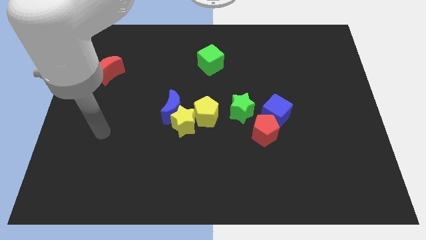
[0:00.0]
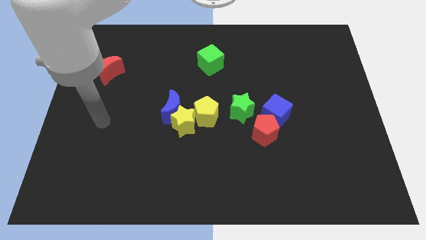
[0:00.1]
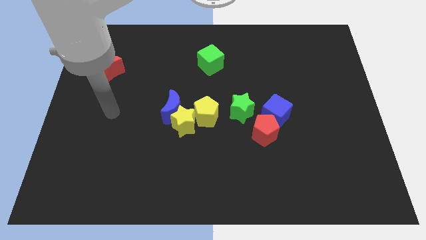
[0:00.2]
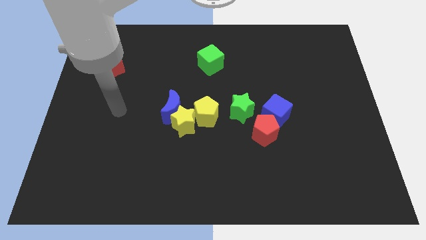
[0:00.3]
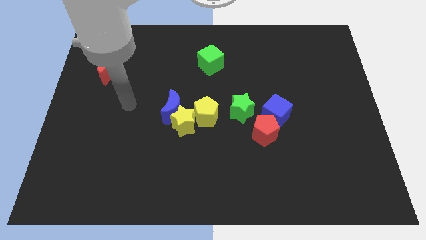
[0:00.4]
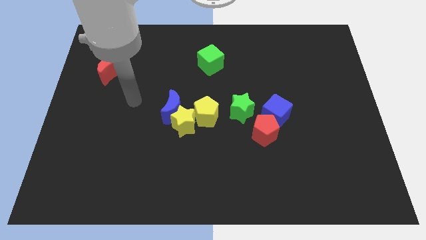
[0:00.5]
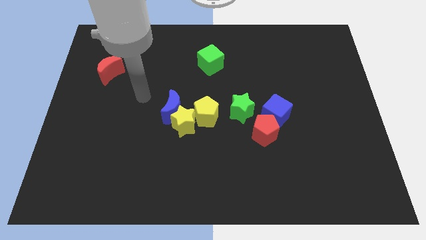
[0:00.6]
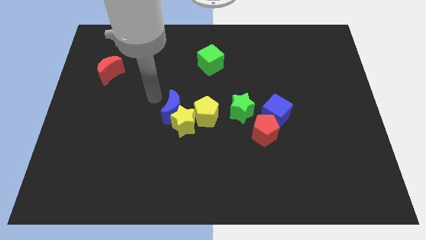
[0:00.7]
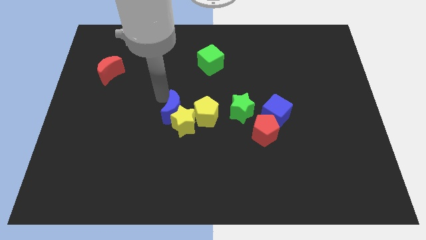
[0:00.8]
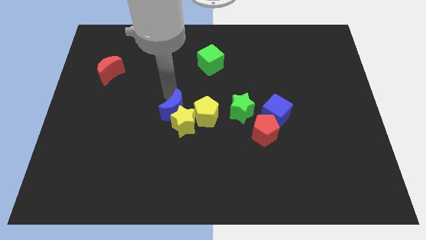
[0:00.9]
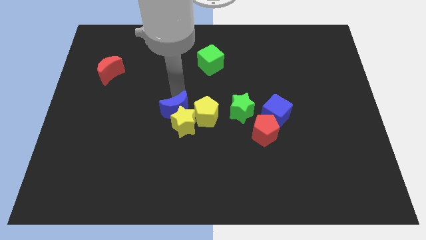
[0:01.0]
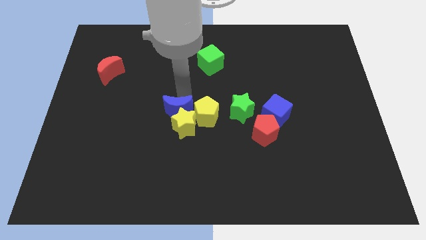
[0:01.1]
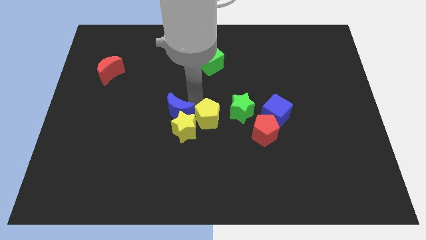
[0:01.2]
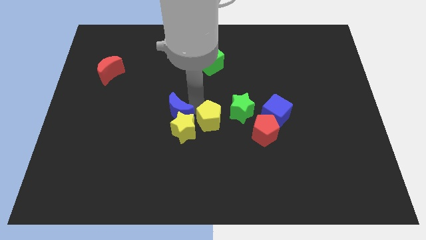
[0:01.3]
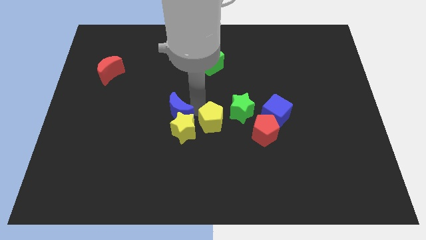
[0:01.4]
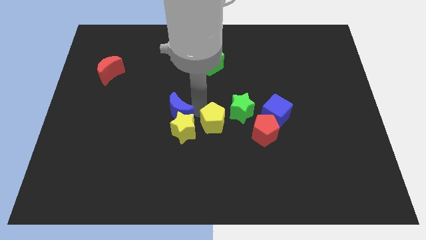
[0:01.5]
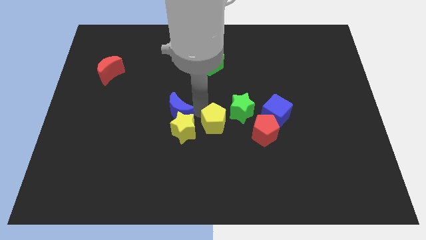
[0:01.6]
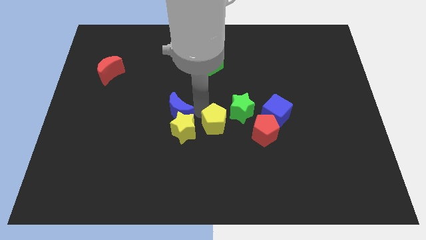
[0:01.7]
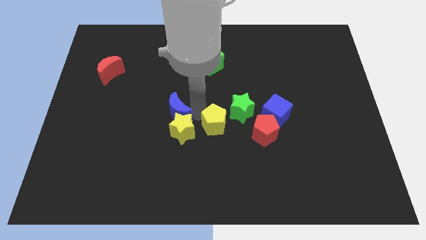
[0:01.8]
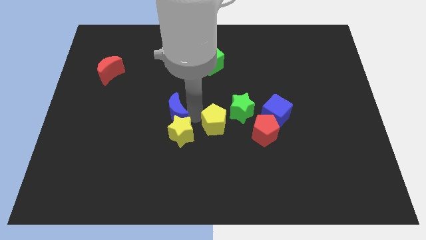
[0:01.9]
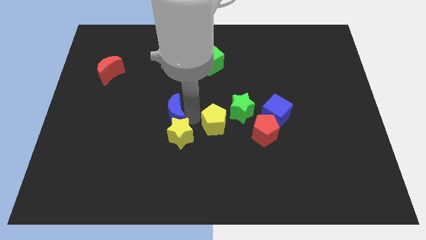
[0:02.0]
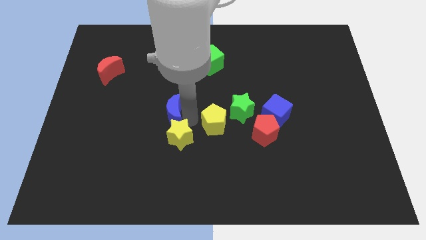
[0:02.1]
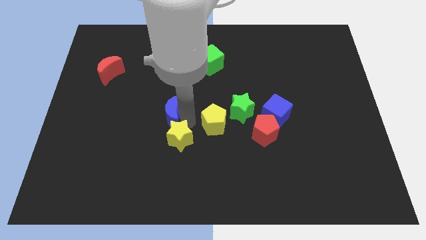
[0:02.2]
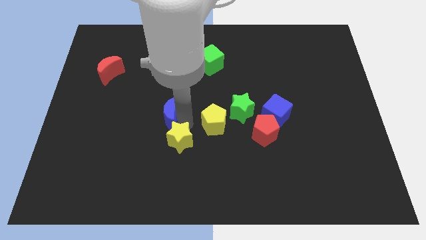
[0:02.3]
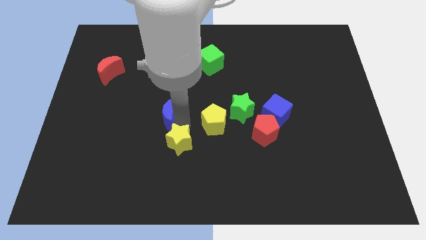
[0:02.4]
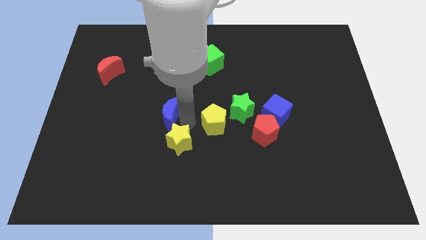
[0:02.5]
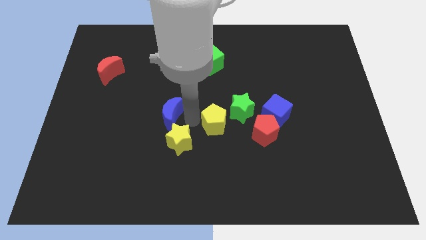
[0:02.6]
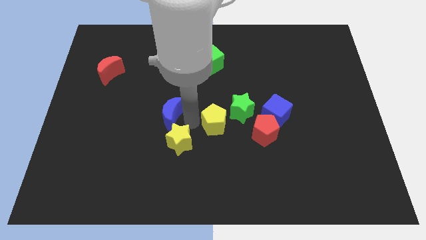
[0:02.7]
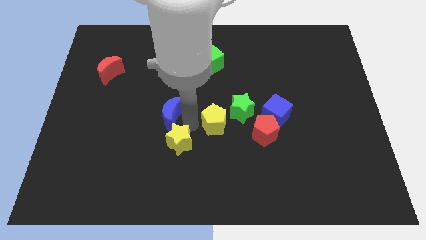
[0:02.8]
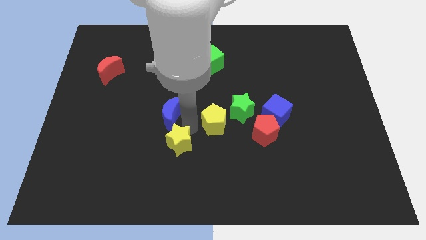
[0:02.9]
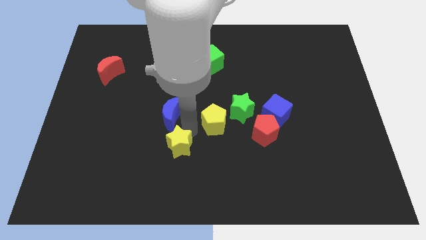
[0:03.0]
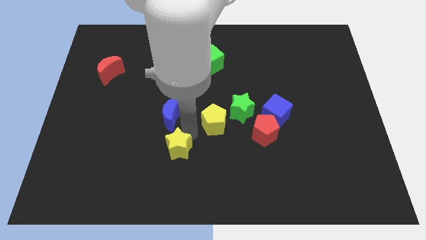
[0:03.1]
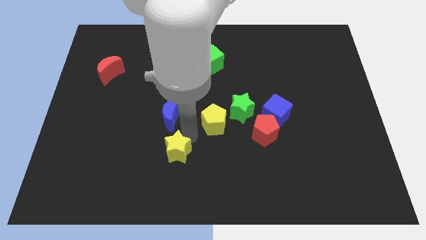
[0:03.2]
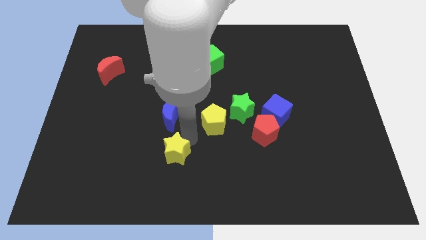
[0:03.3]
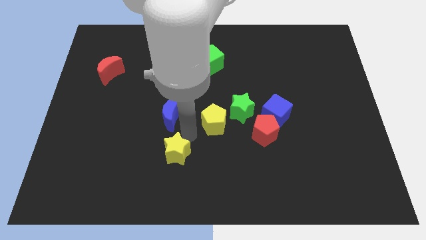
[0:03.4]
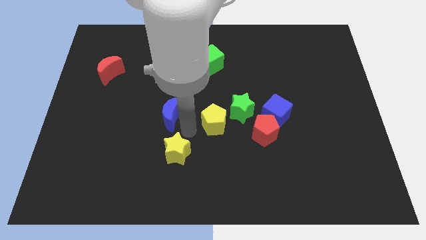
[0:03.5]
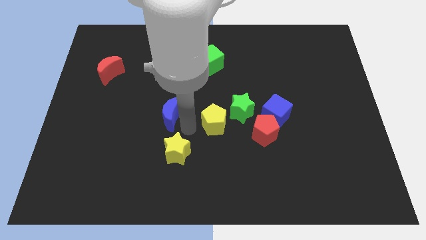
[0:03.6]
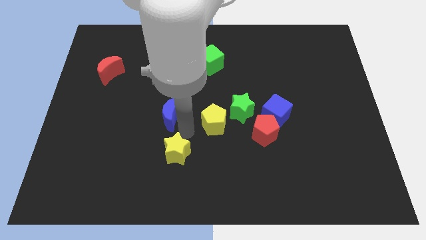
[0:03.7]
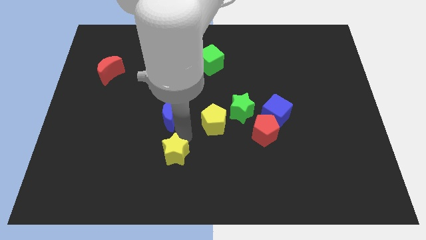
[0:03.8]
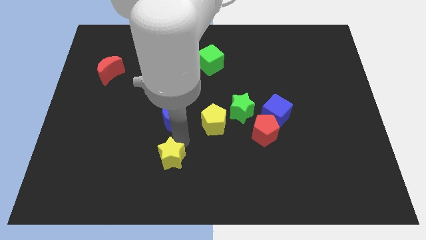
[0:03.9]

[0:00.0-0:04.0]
separate the yellow star from the blue moon and yellow pentagon

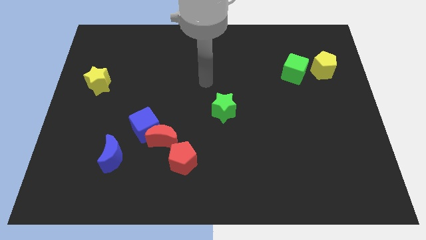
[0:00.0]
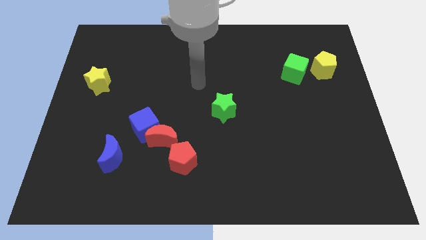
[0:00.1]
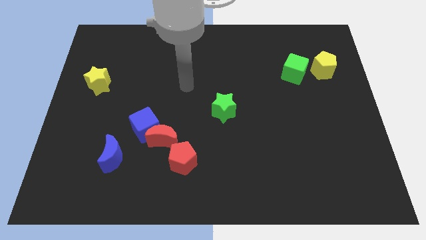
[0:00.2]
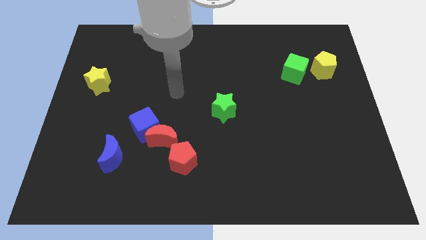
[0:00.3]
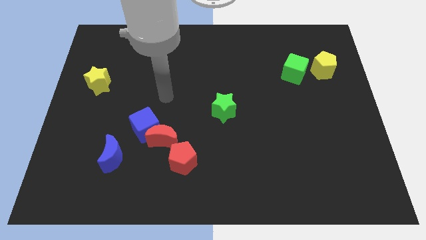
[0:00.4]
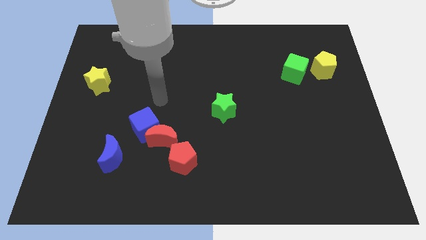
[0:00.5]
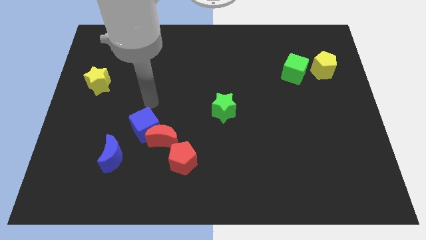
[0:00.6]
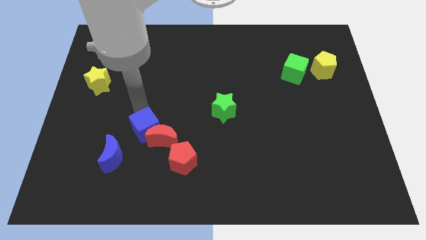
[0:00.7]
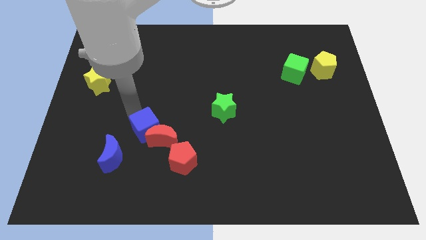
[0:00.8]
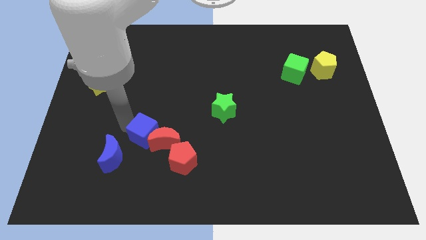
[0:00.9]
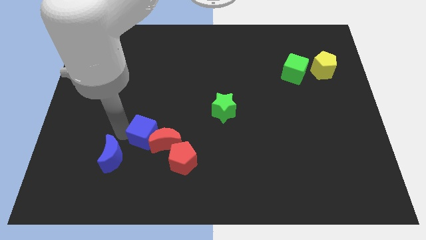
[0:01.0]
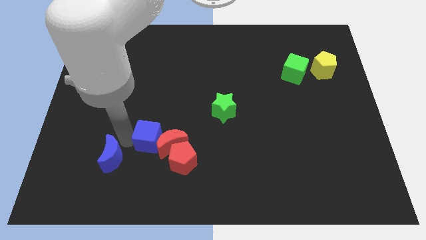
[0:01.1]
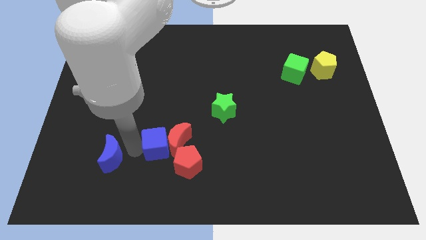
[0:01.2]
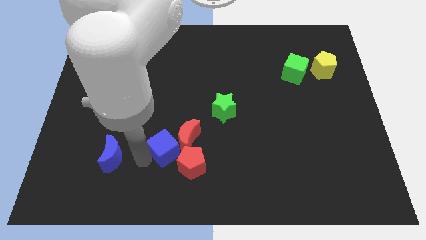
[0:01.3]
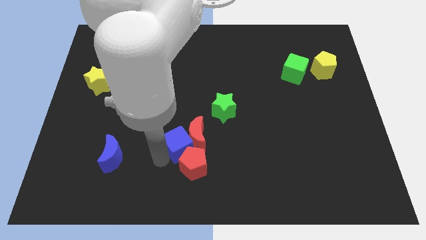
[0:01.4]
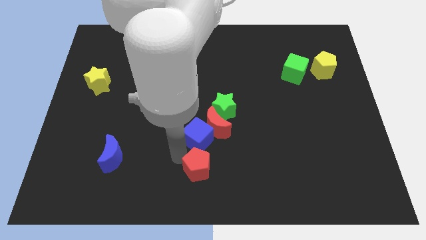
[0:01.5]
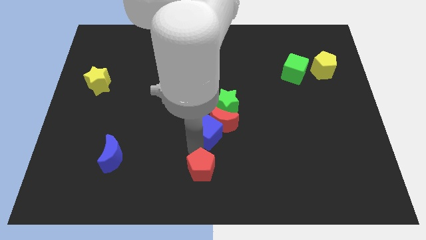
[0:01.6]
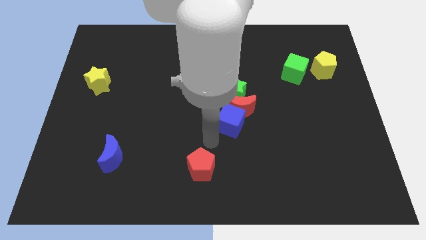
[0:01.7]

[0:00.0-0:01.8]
pull the red moon apart from the blue cube and red pentagon

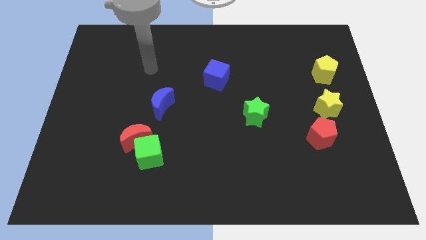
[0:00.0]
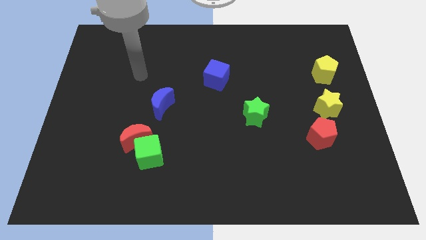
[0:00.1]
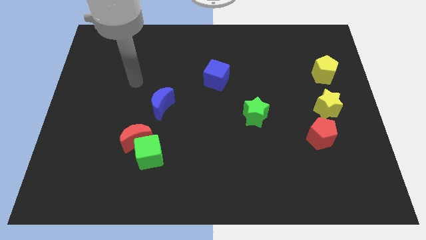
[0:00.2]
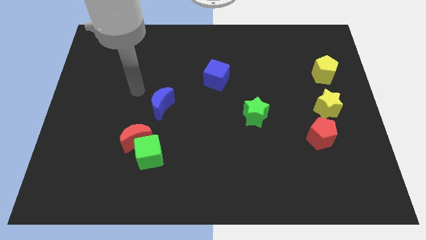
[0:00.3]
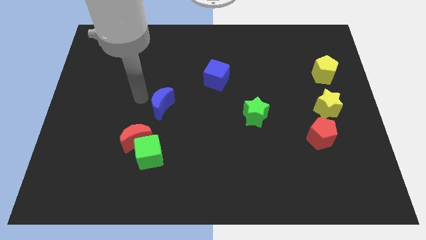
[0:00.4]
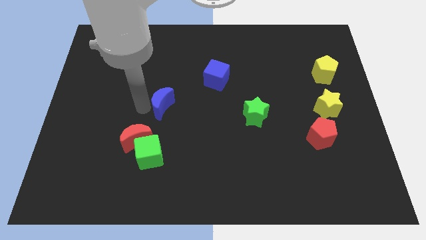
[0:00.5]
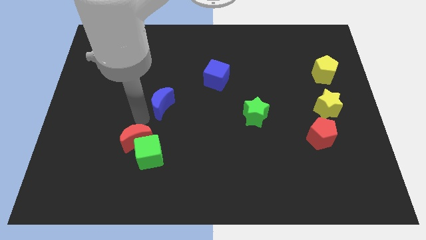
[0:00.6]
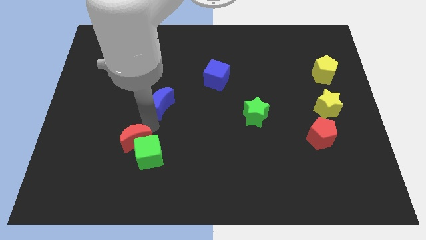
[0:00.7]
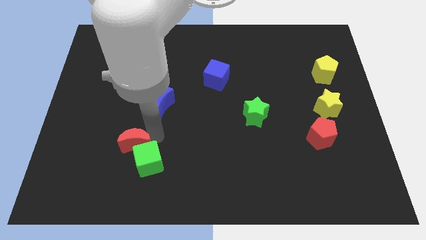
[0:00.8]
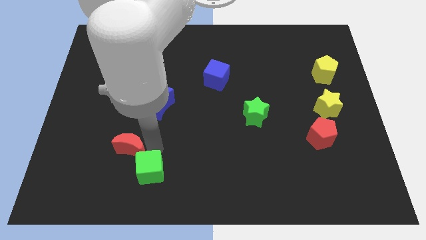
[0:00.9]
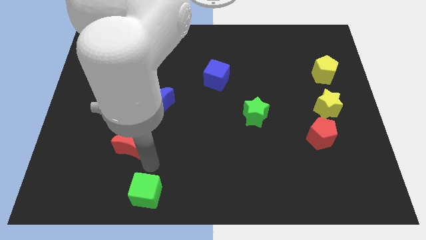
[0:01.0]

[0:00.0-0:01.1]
separate the red moon from the green cube

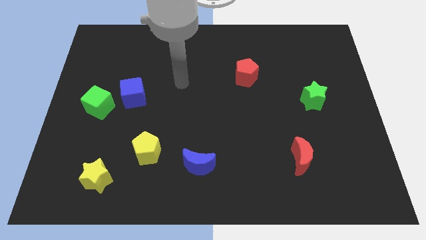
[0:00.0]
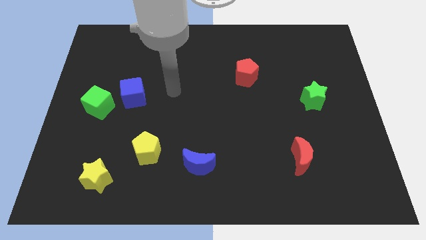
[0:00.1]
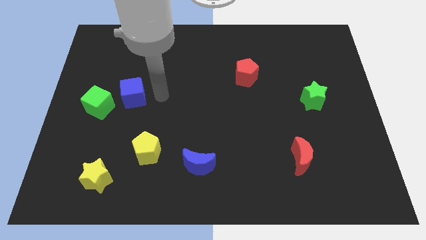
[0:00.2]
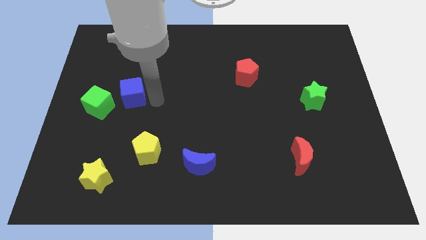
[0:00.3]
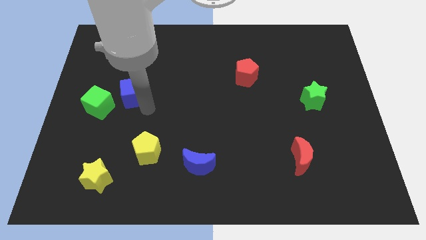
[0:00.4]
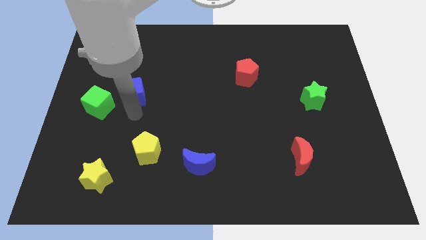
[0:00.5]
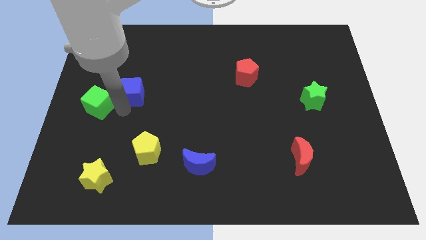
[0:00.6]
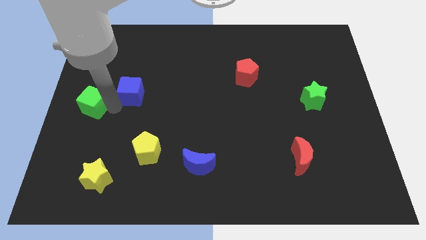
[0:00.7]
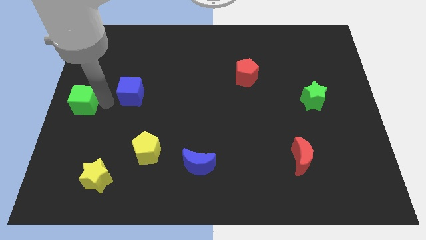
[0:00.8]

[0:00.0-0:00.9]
move the blue cube away from the green cube

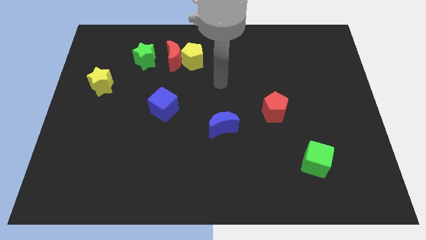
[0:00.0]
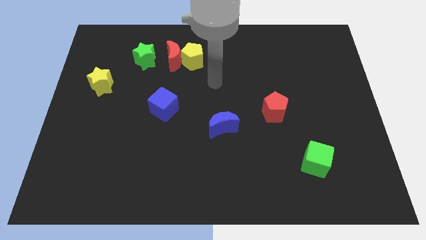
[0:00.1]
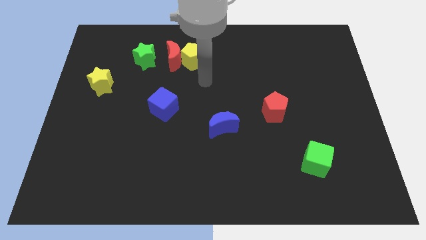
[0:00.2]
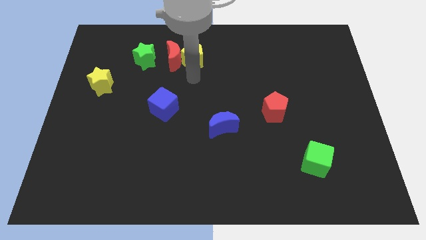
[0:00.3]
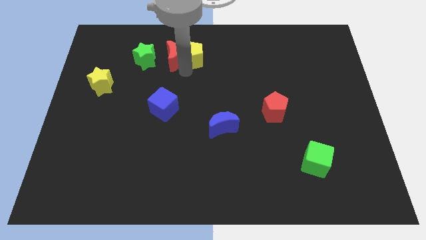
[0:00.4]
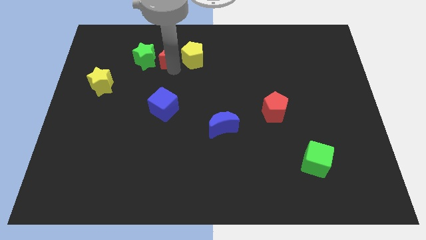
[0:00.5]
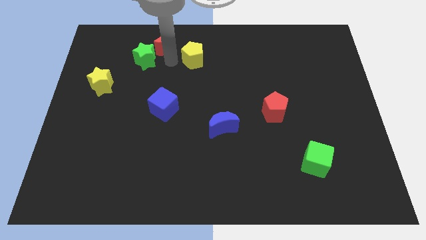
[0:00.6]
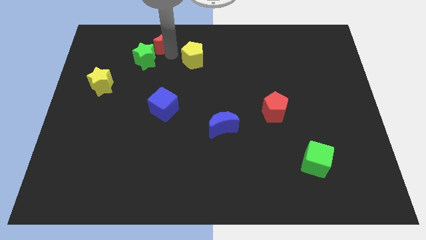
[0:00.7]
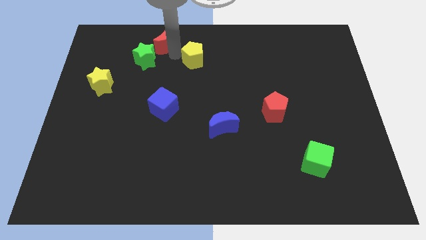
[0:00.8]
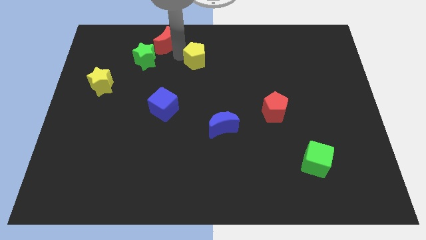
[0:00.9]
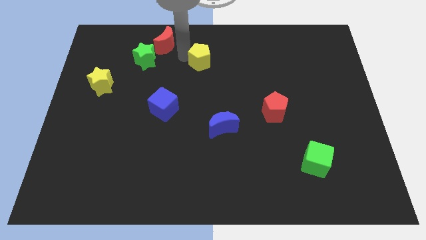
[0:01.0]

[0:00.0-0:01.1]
separate the yellow pentagon from the red moon

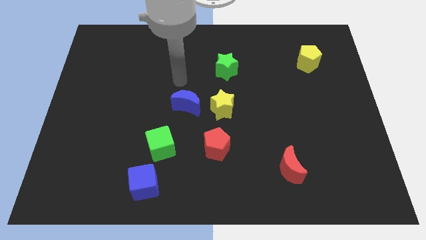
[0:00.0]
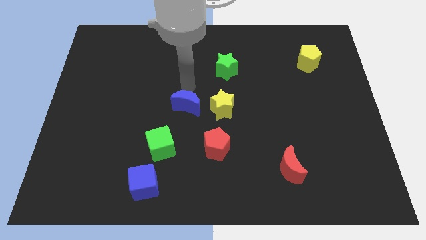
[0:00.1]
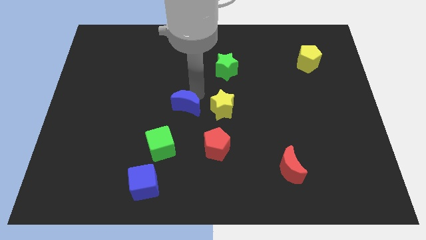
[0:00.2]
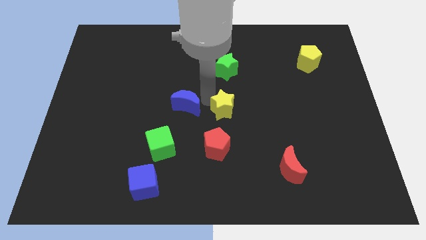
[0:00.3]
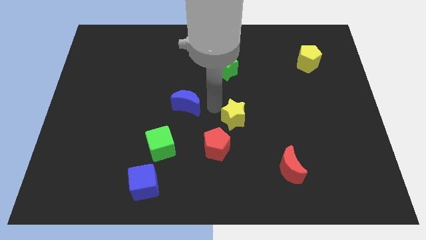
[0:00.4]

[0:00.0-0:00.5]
separate the blue moon from the yellow star
